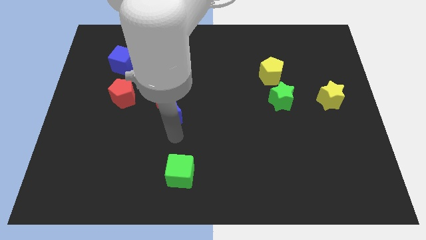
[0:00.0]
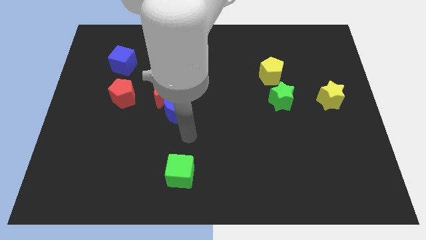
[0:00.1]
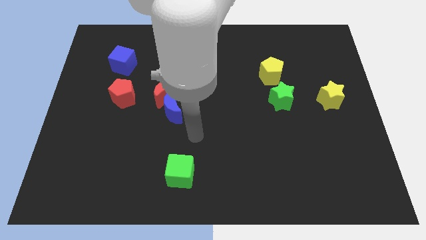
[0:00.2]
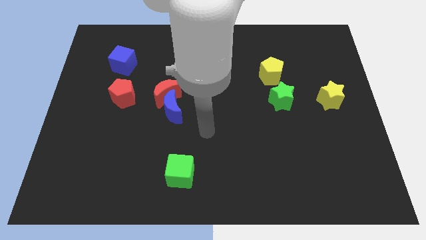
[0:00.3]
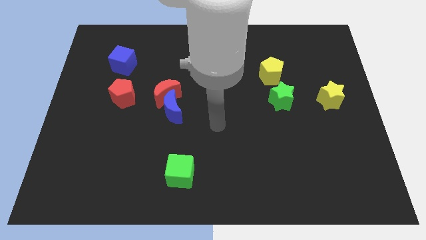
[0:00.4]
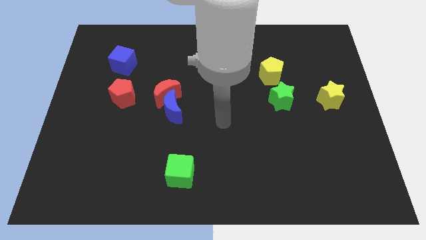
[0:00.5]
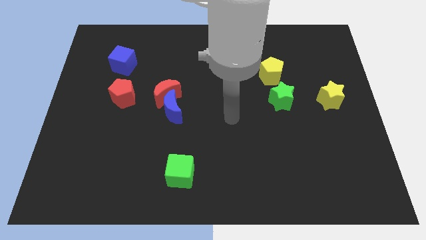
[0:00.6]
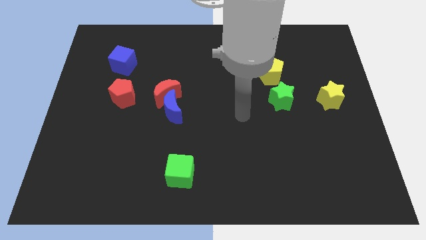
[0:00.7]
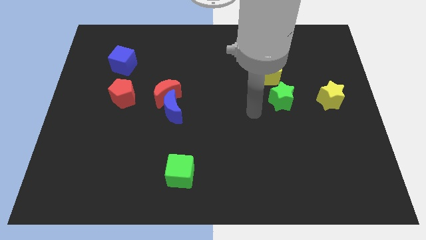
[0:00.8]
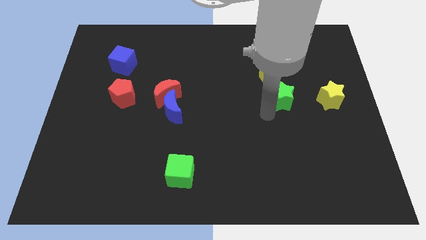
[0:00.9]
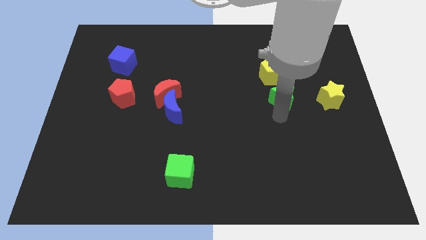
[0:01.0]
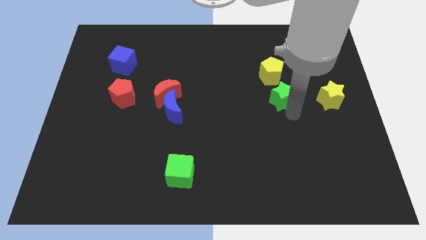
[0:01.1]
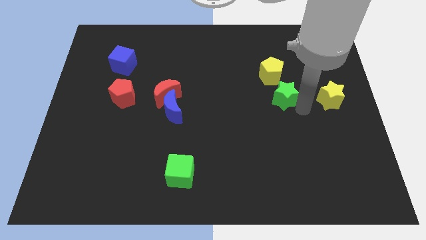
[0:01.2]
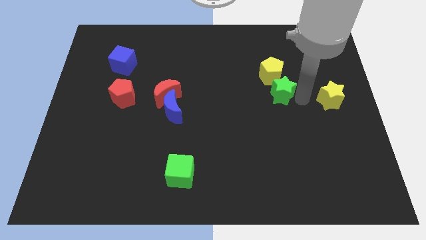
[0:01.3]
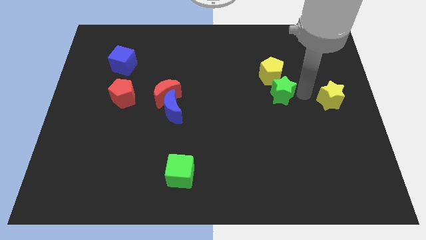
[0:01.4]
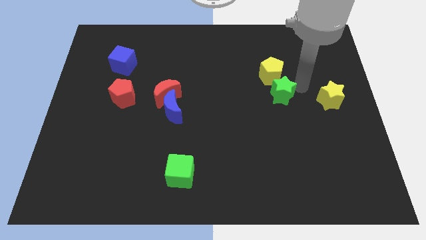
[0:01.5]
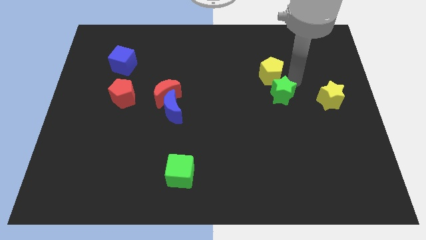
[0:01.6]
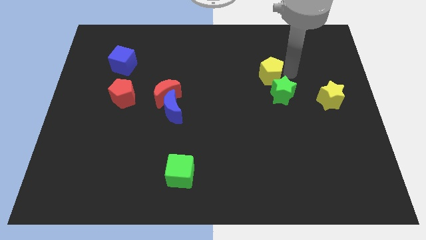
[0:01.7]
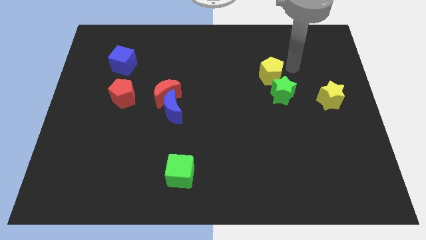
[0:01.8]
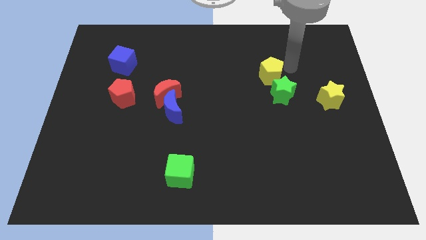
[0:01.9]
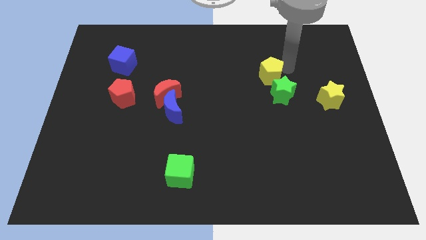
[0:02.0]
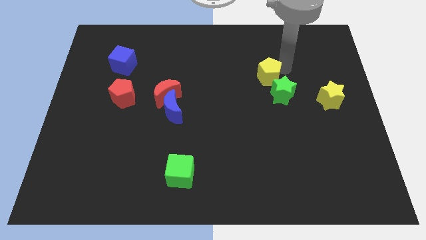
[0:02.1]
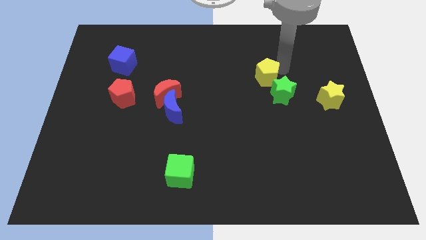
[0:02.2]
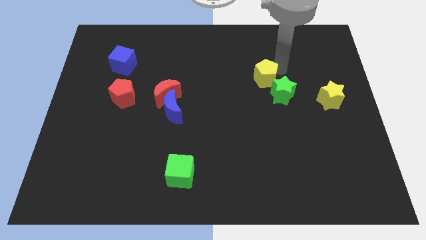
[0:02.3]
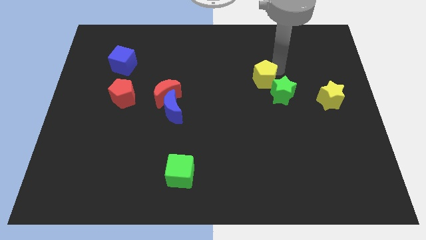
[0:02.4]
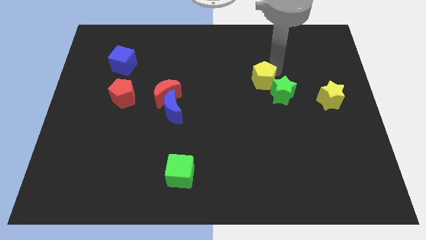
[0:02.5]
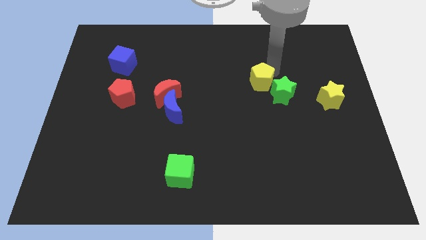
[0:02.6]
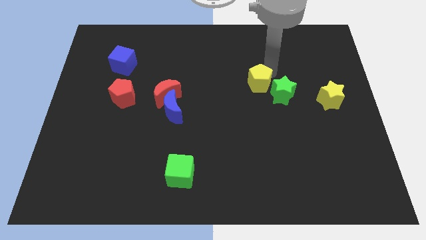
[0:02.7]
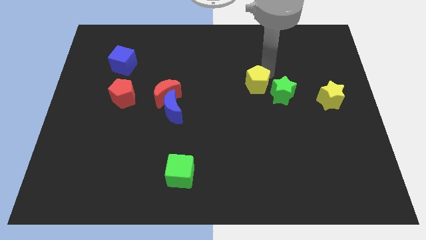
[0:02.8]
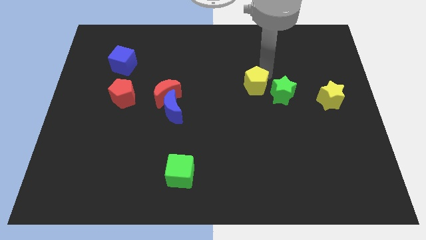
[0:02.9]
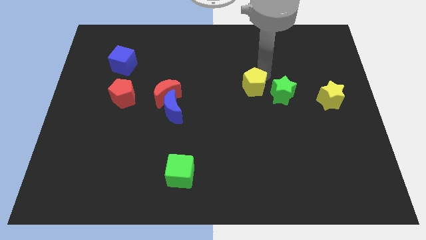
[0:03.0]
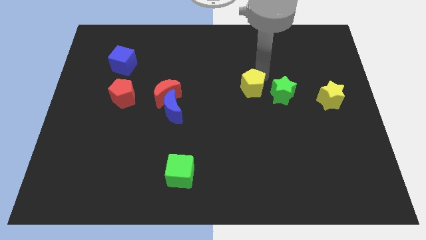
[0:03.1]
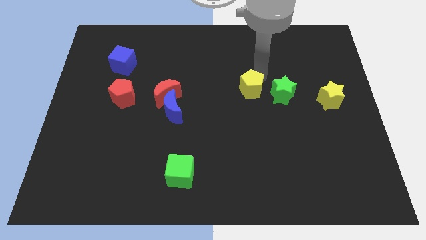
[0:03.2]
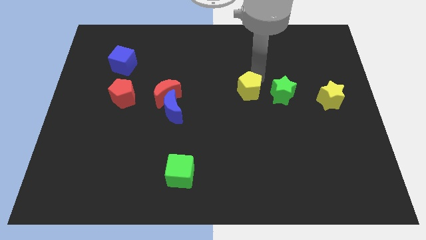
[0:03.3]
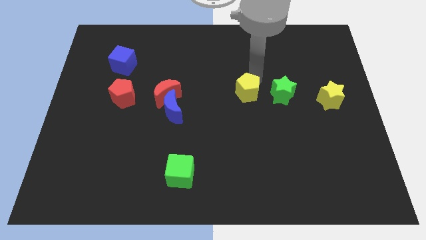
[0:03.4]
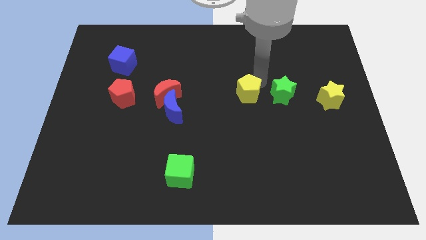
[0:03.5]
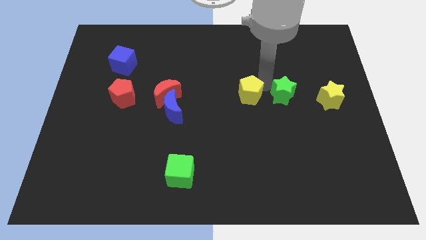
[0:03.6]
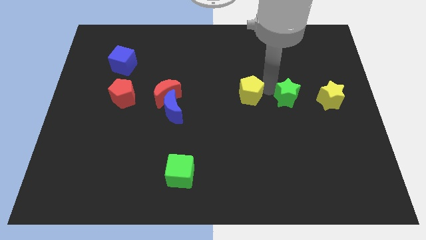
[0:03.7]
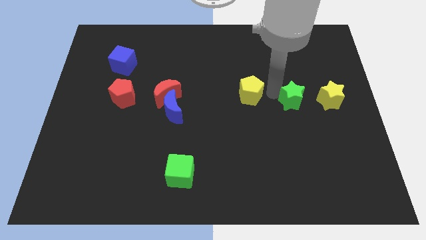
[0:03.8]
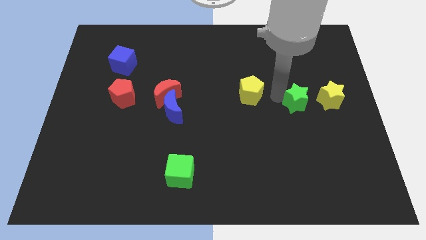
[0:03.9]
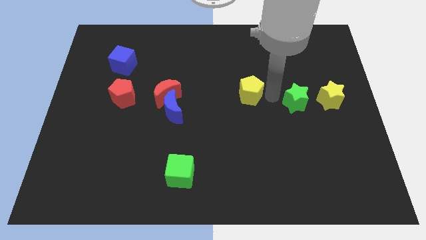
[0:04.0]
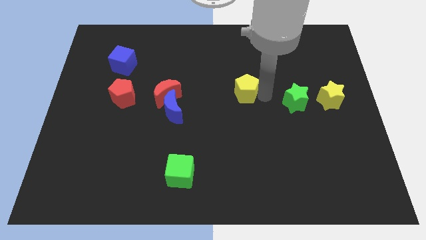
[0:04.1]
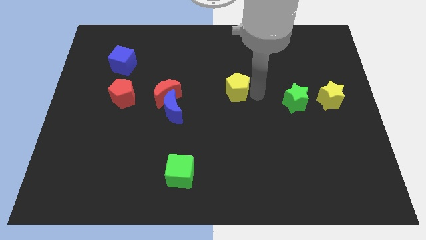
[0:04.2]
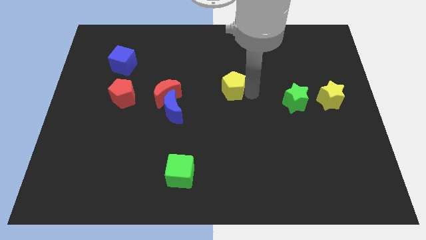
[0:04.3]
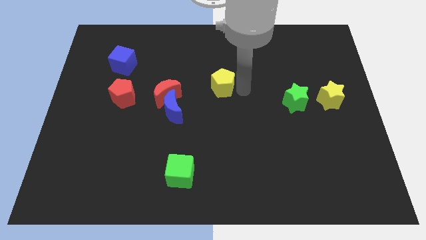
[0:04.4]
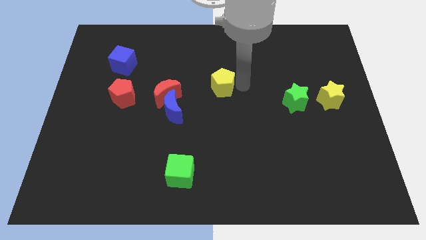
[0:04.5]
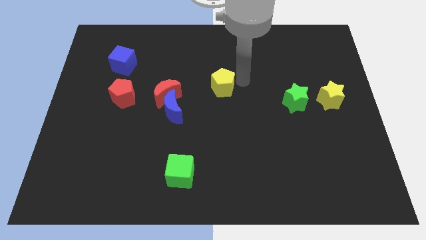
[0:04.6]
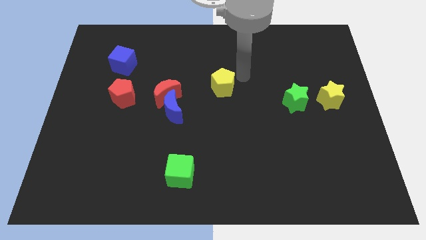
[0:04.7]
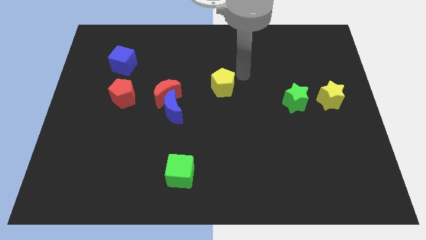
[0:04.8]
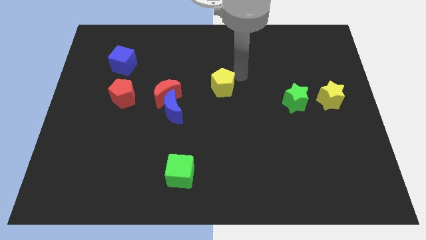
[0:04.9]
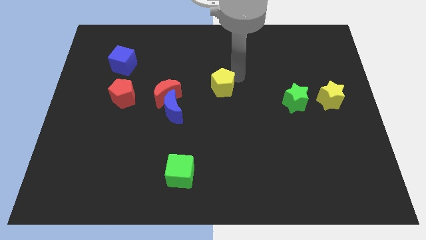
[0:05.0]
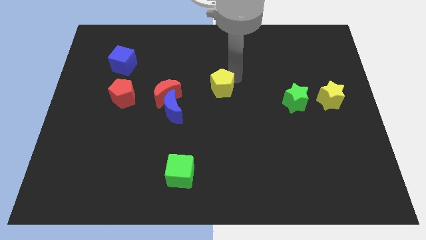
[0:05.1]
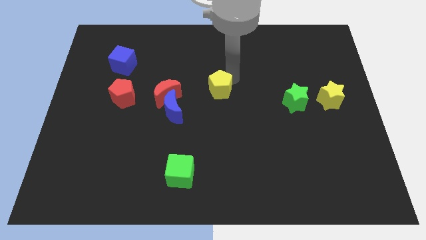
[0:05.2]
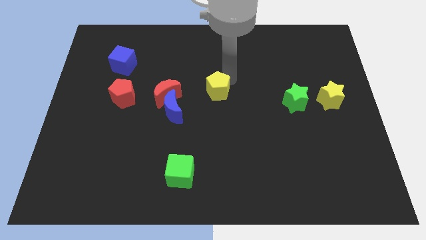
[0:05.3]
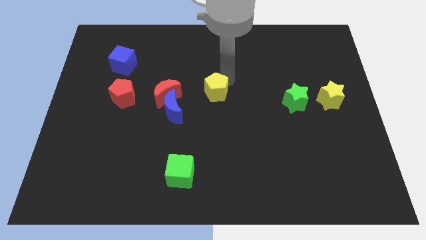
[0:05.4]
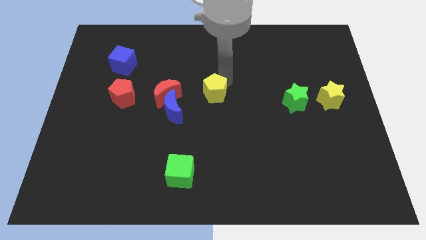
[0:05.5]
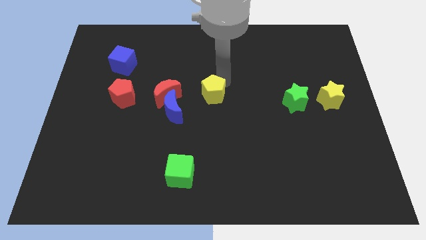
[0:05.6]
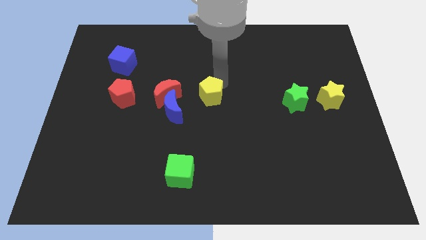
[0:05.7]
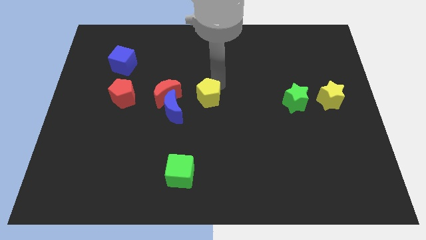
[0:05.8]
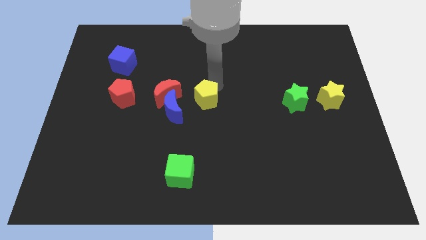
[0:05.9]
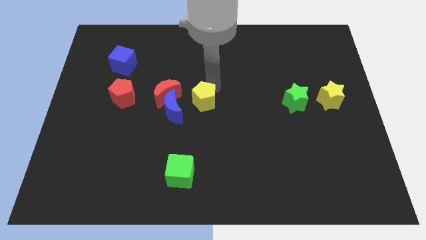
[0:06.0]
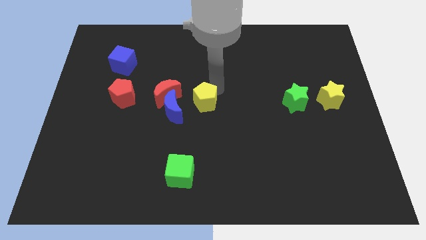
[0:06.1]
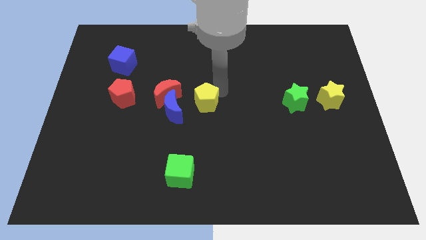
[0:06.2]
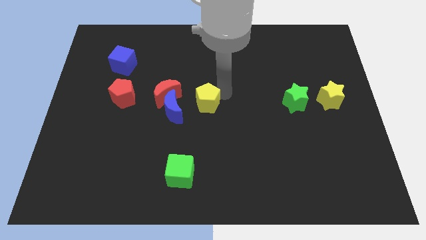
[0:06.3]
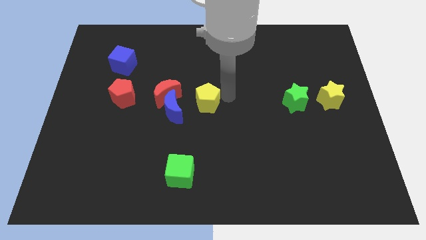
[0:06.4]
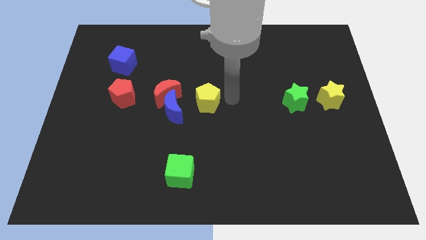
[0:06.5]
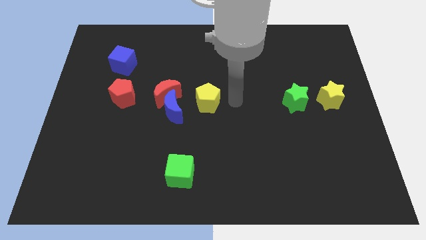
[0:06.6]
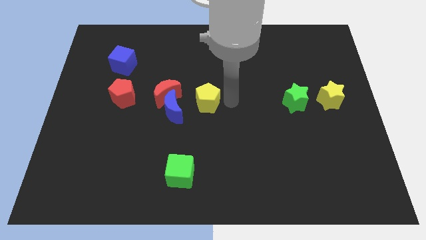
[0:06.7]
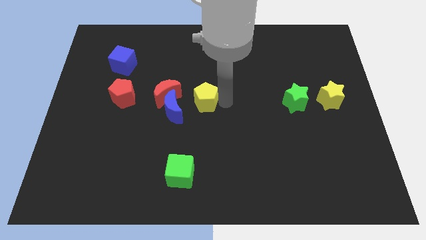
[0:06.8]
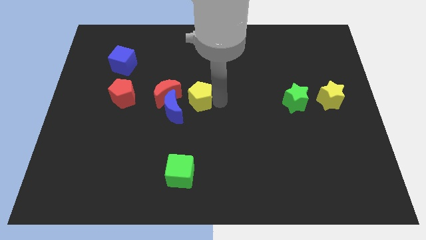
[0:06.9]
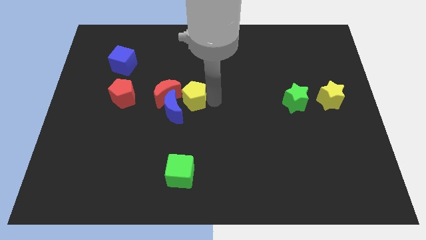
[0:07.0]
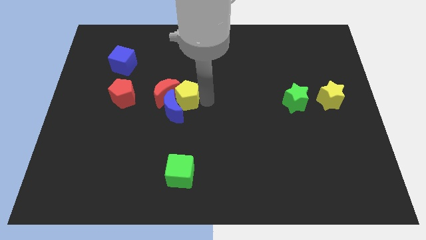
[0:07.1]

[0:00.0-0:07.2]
move the yellow pentagon next to the red moon
